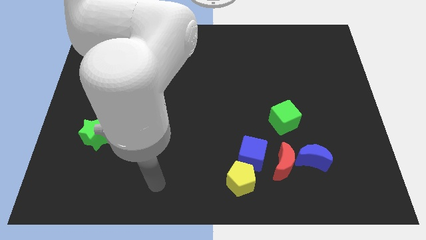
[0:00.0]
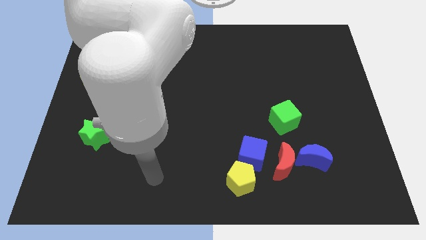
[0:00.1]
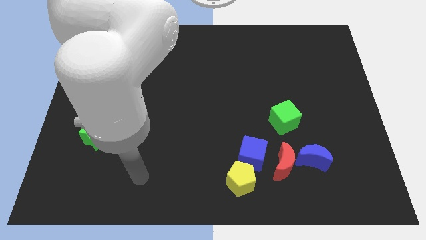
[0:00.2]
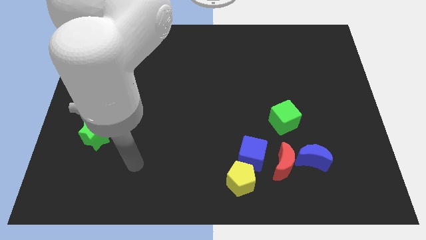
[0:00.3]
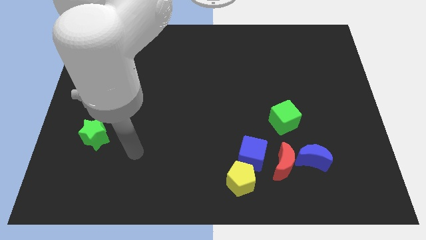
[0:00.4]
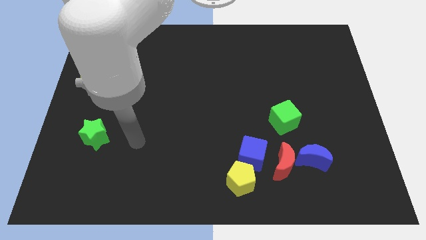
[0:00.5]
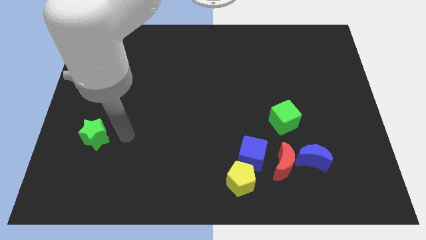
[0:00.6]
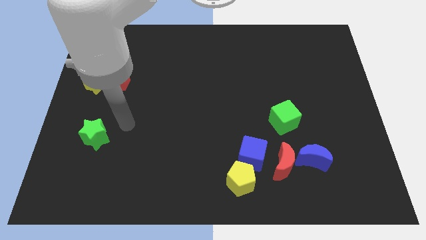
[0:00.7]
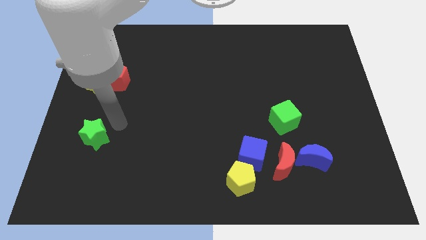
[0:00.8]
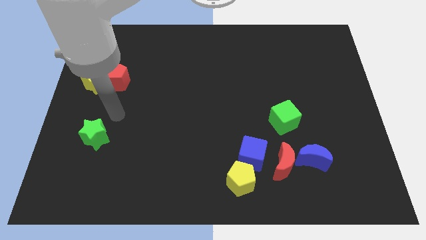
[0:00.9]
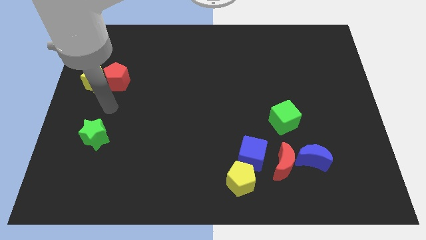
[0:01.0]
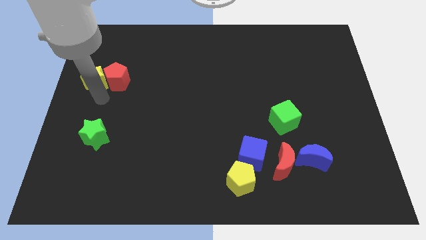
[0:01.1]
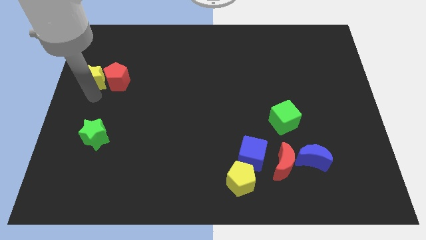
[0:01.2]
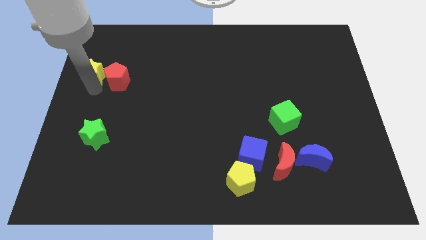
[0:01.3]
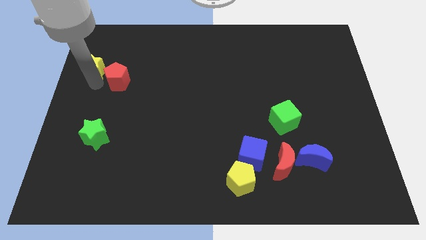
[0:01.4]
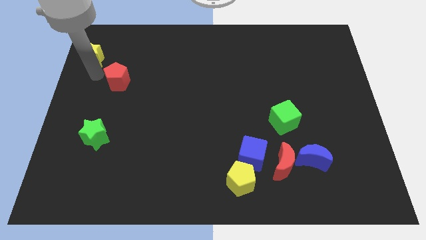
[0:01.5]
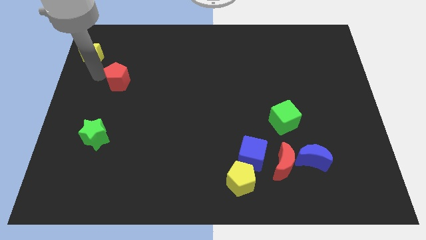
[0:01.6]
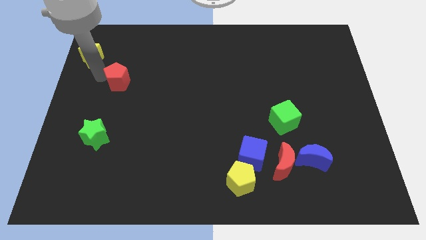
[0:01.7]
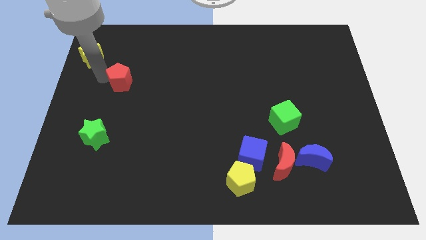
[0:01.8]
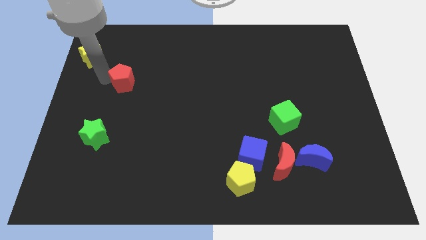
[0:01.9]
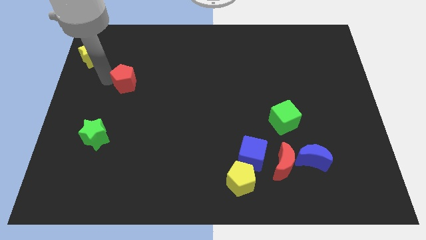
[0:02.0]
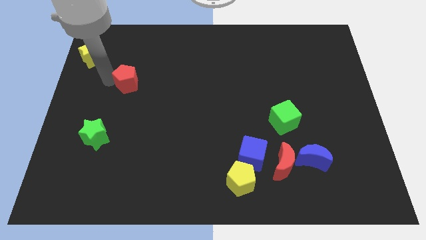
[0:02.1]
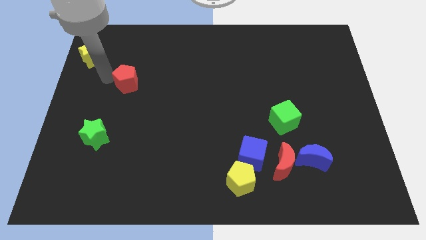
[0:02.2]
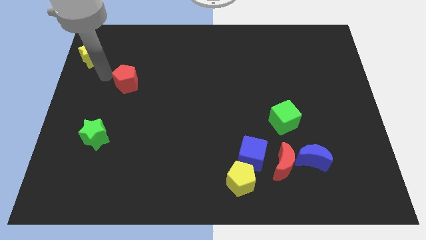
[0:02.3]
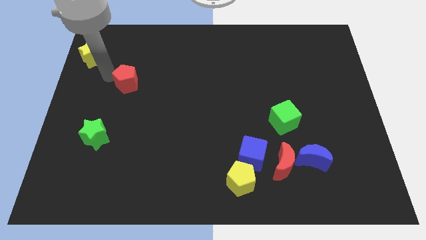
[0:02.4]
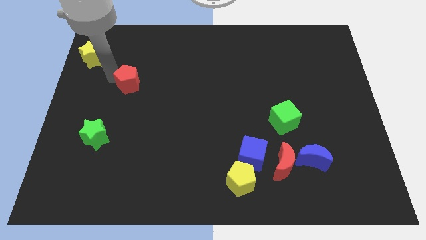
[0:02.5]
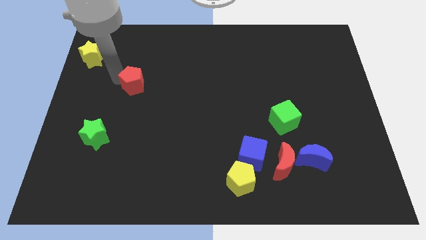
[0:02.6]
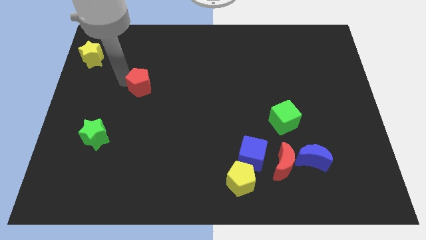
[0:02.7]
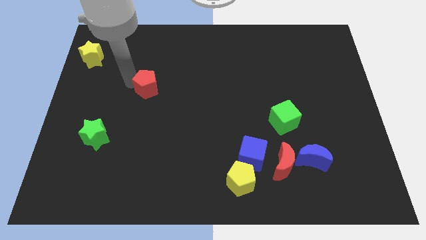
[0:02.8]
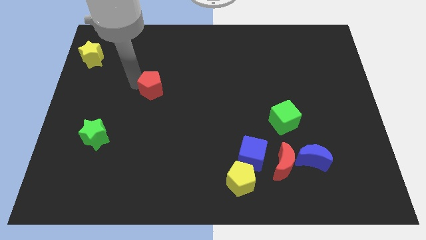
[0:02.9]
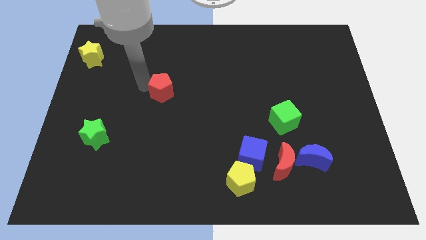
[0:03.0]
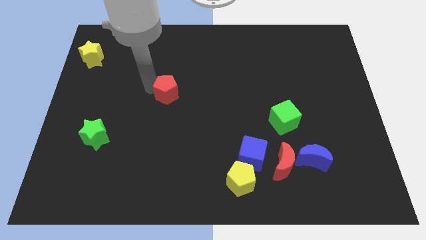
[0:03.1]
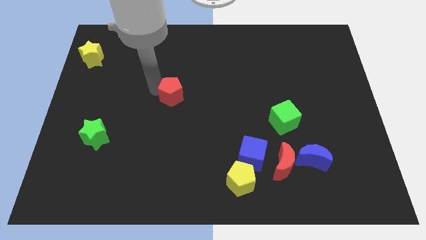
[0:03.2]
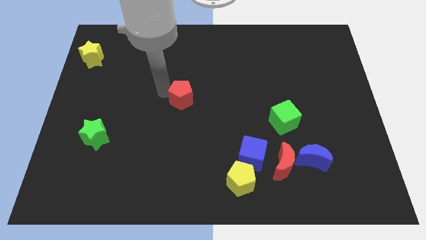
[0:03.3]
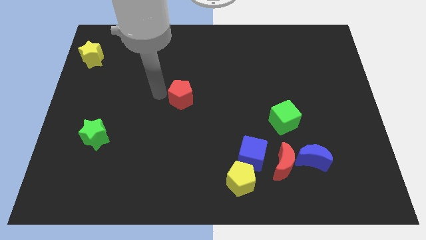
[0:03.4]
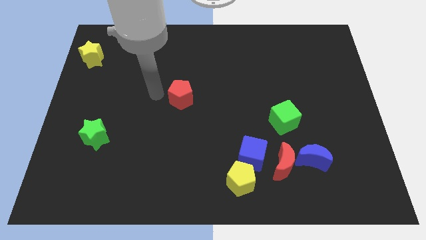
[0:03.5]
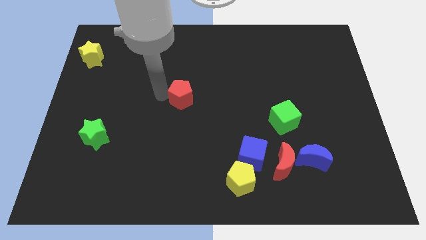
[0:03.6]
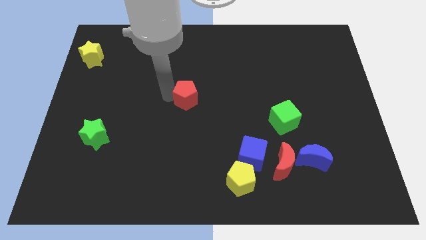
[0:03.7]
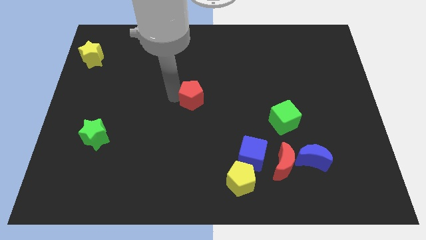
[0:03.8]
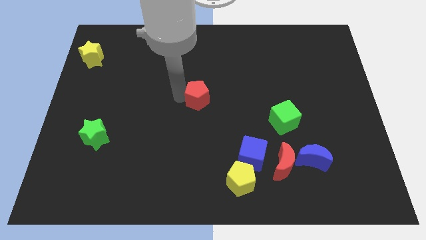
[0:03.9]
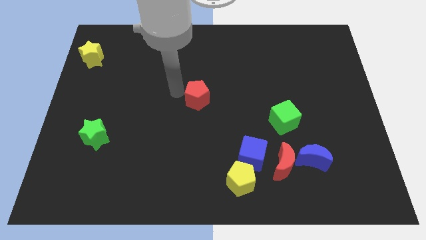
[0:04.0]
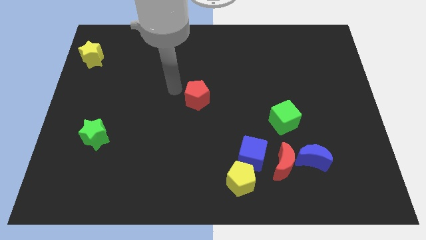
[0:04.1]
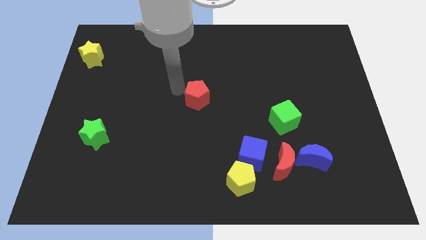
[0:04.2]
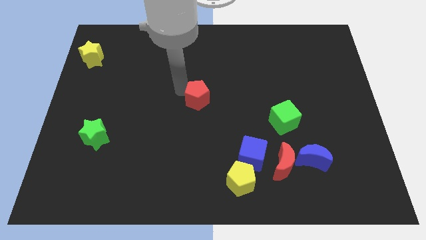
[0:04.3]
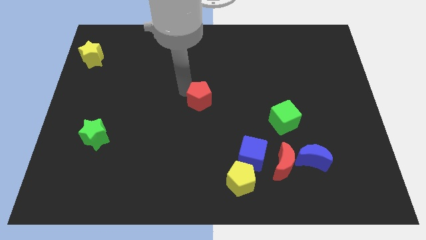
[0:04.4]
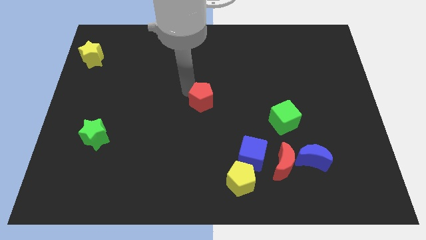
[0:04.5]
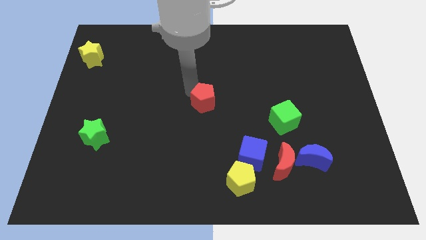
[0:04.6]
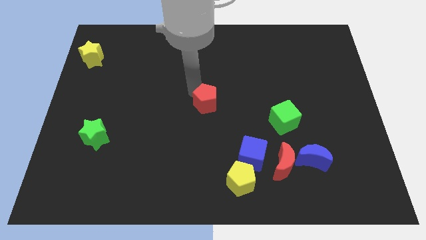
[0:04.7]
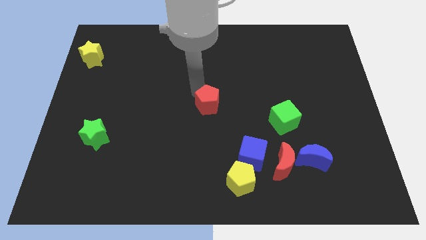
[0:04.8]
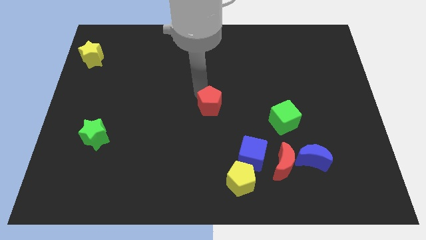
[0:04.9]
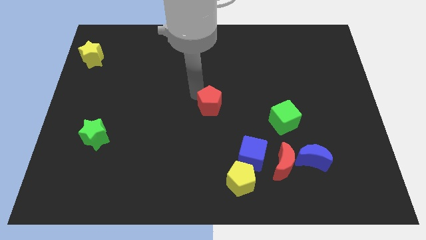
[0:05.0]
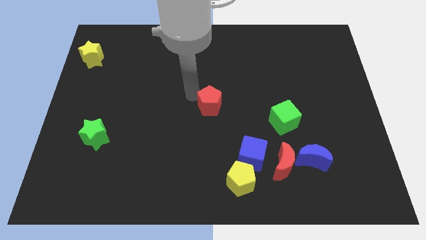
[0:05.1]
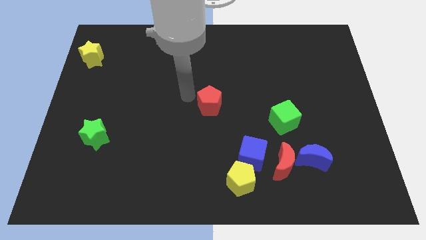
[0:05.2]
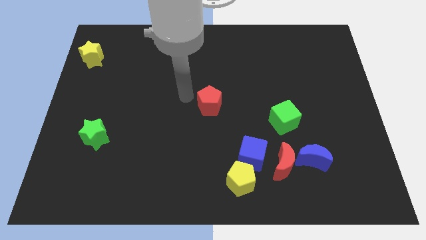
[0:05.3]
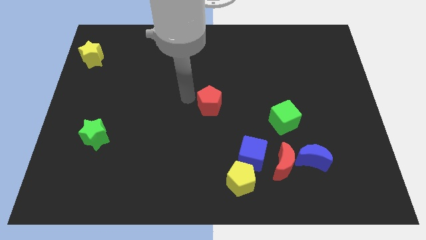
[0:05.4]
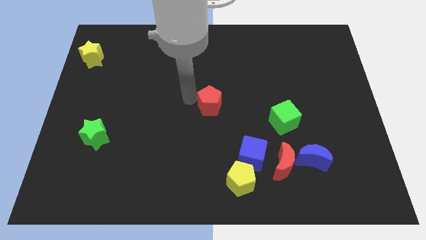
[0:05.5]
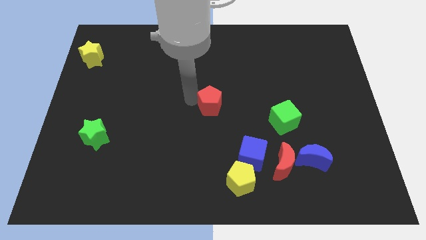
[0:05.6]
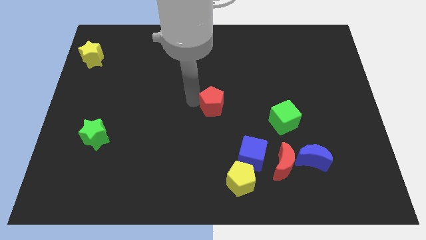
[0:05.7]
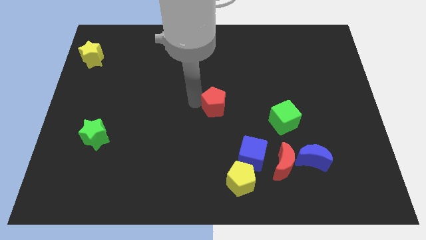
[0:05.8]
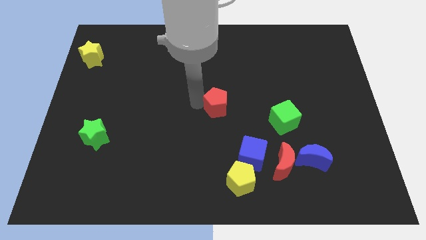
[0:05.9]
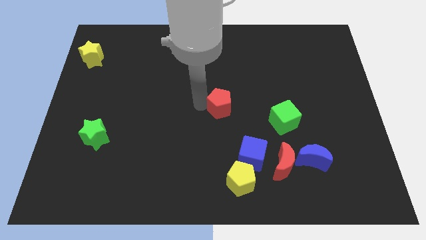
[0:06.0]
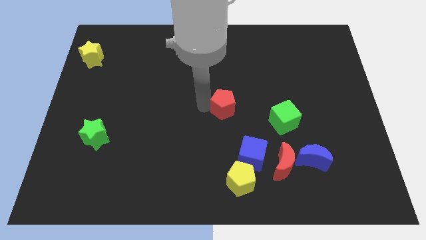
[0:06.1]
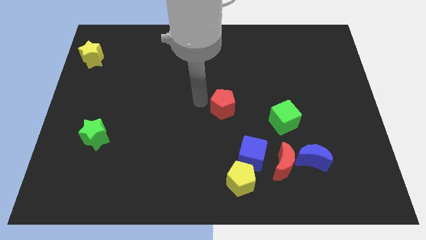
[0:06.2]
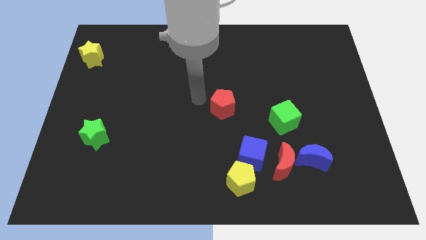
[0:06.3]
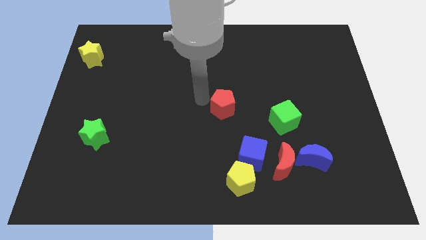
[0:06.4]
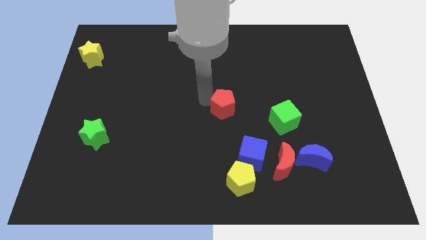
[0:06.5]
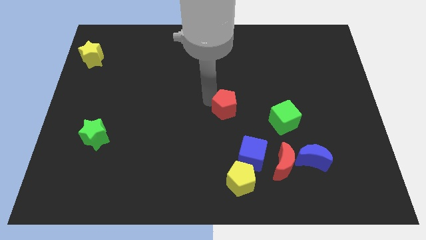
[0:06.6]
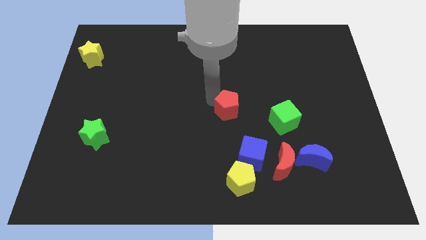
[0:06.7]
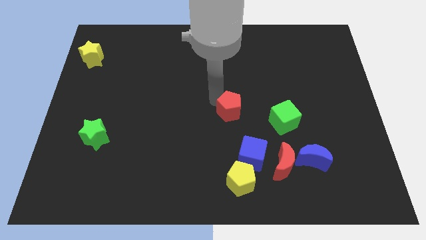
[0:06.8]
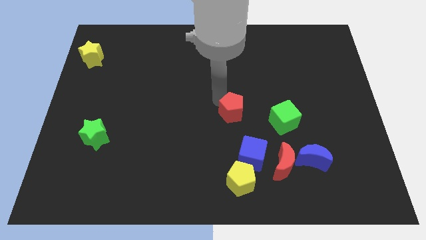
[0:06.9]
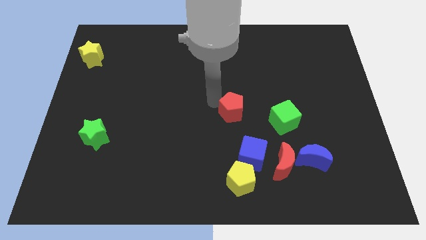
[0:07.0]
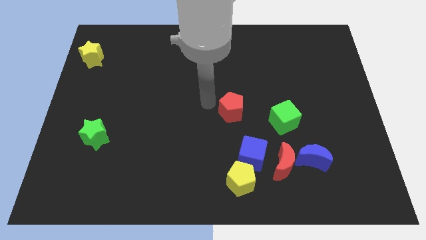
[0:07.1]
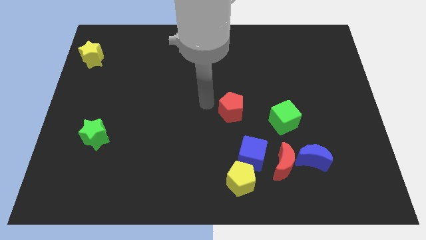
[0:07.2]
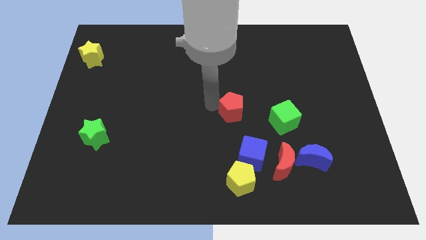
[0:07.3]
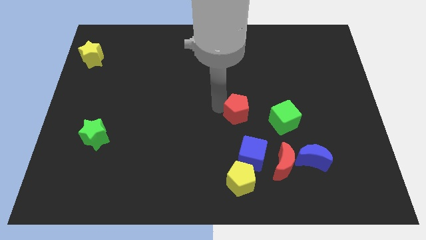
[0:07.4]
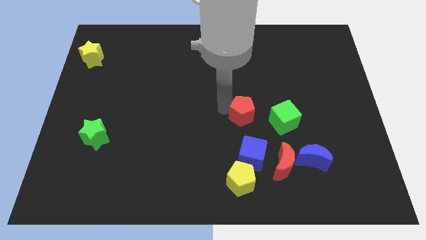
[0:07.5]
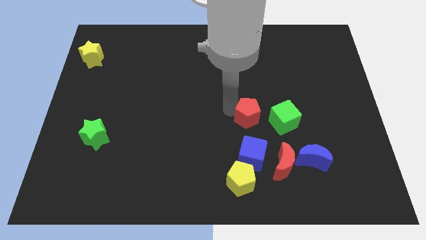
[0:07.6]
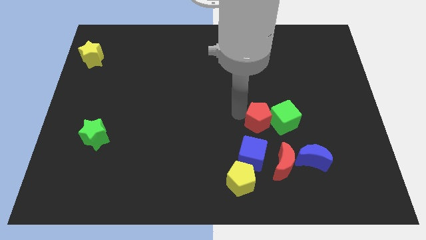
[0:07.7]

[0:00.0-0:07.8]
push the red pentagon to the green cube
